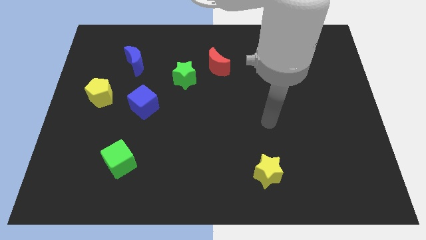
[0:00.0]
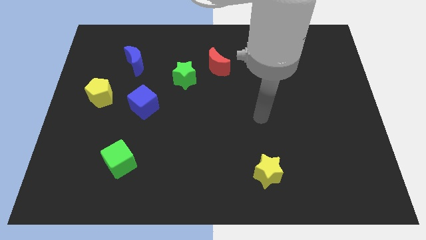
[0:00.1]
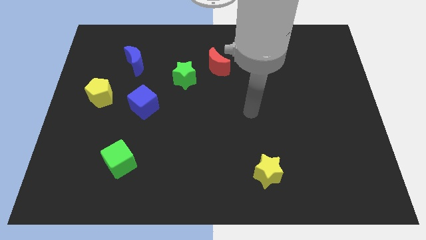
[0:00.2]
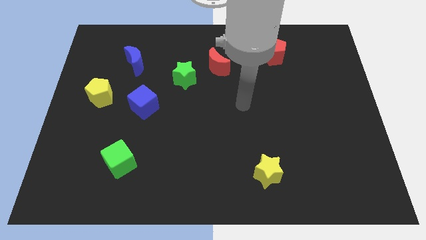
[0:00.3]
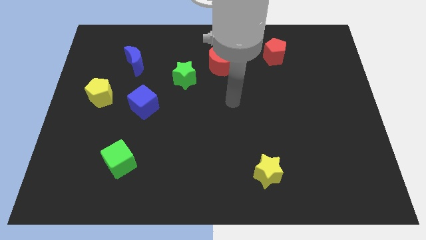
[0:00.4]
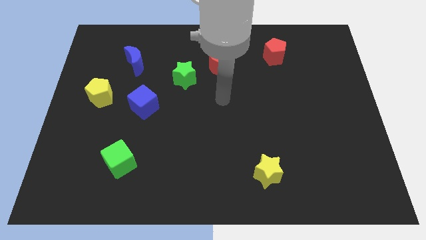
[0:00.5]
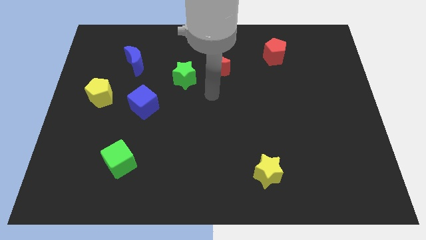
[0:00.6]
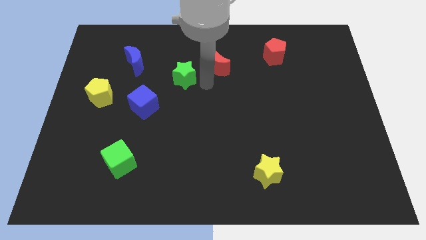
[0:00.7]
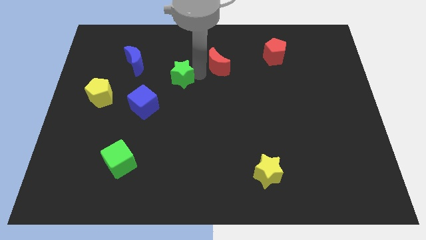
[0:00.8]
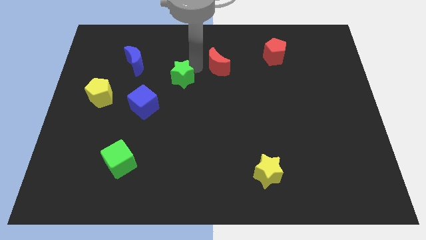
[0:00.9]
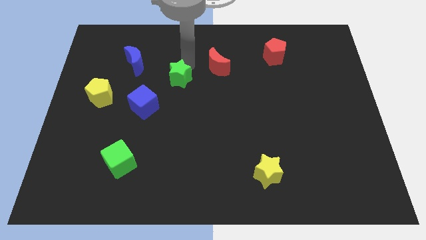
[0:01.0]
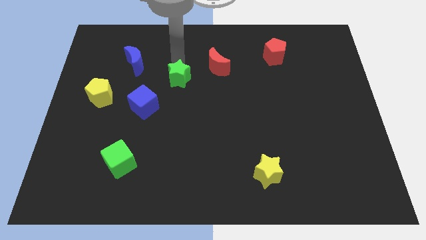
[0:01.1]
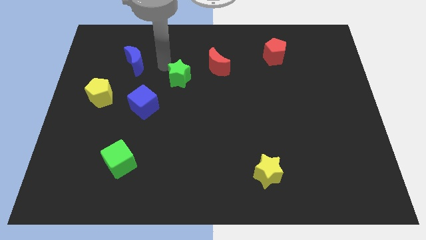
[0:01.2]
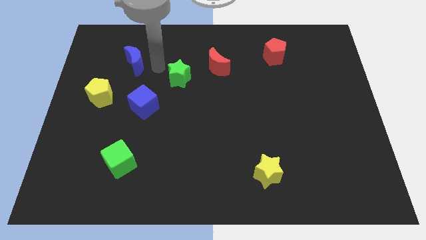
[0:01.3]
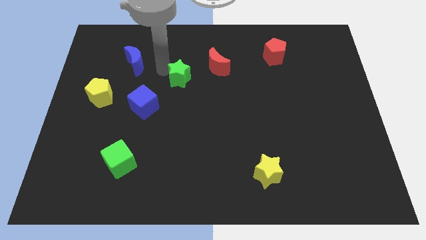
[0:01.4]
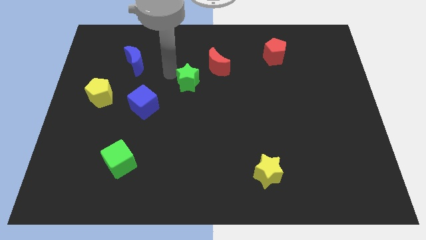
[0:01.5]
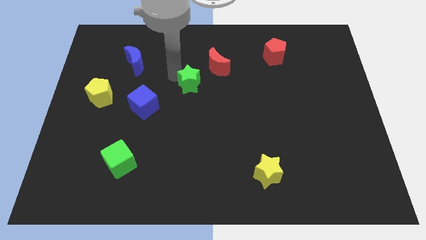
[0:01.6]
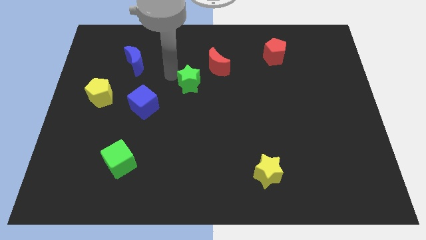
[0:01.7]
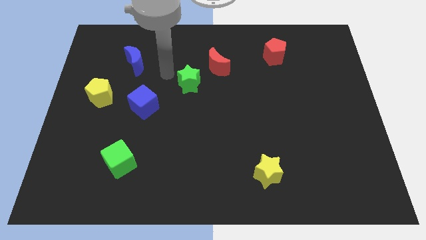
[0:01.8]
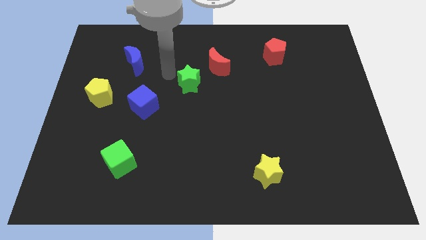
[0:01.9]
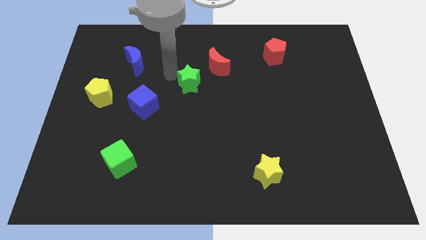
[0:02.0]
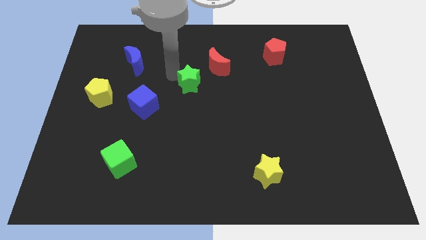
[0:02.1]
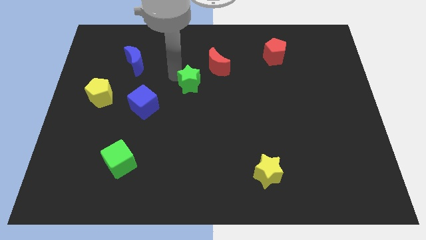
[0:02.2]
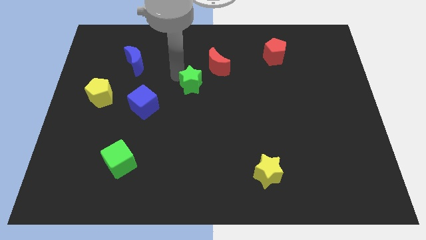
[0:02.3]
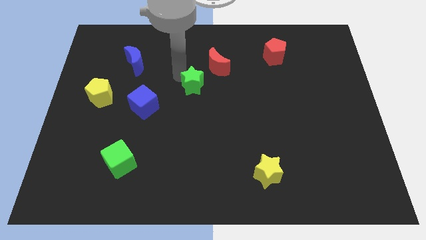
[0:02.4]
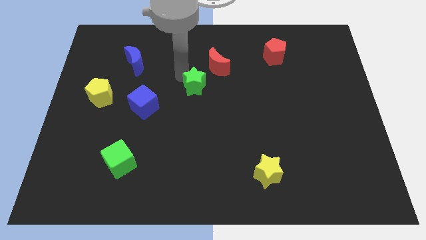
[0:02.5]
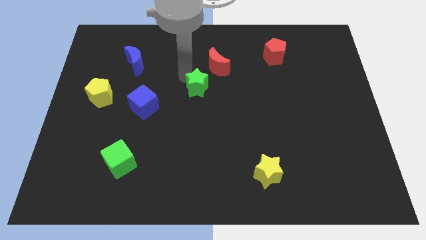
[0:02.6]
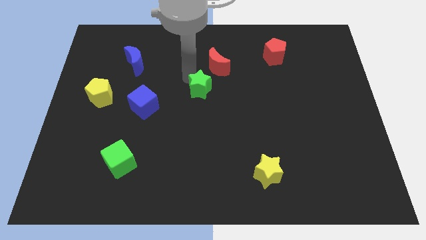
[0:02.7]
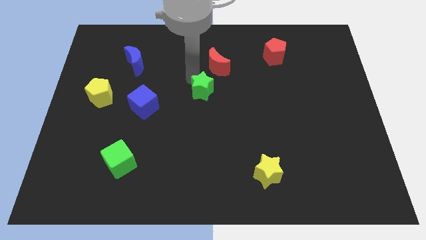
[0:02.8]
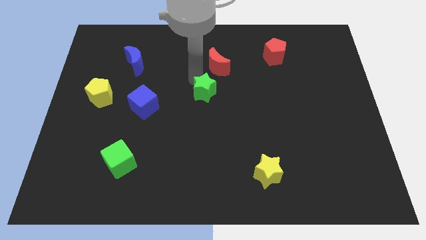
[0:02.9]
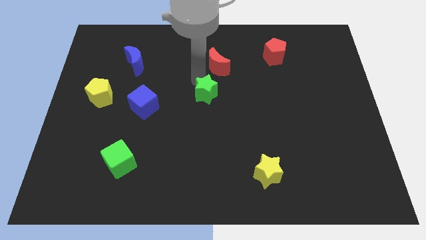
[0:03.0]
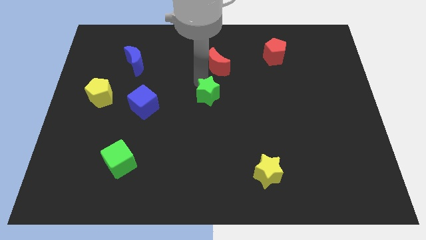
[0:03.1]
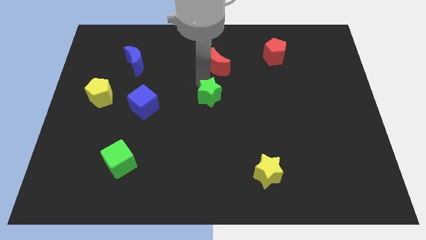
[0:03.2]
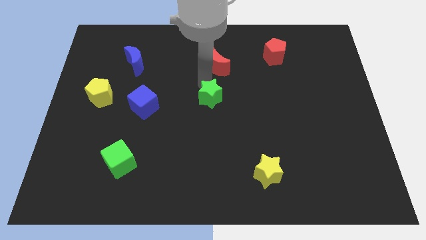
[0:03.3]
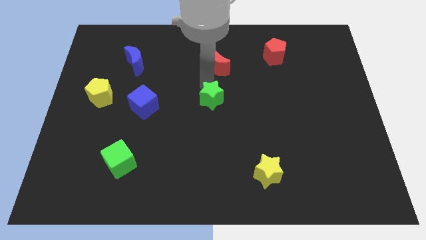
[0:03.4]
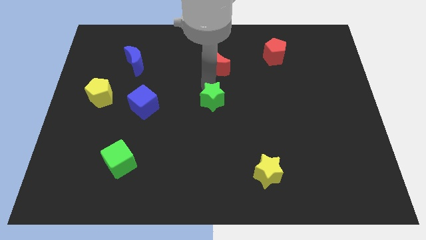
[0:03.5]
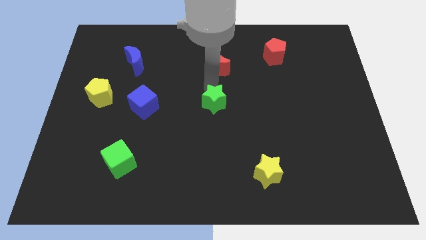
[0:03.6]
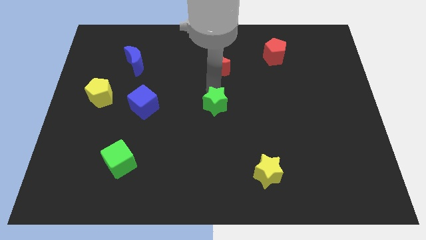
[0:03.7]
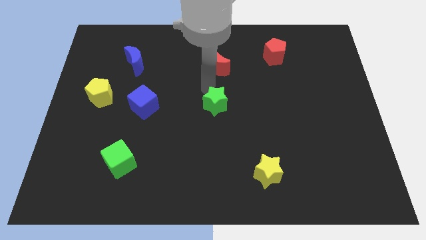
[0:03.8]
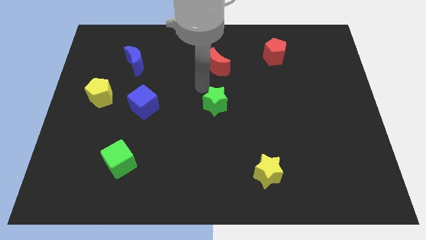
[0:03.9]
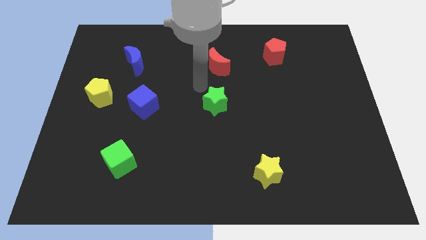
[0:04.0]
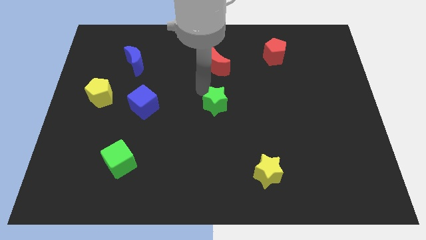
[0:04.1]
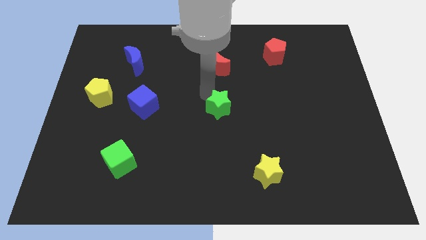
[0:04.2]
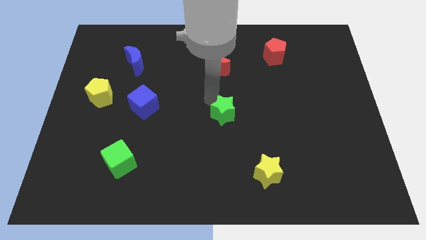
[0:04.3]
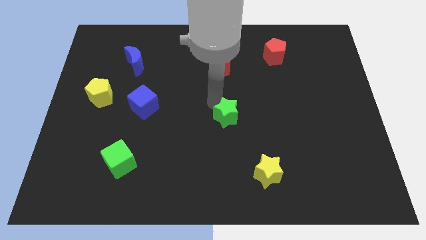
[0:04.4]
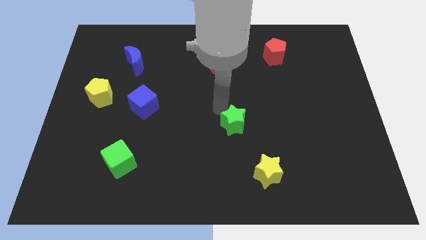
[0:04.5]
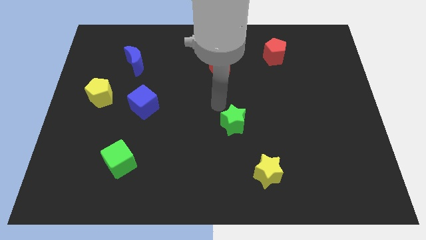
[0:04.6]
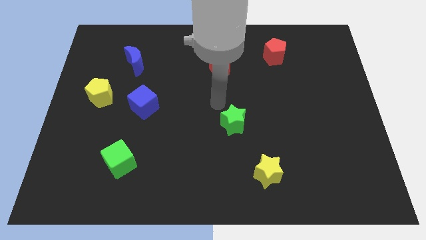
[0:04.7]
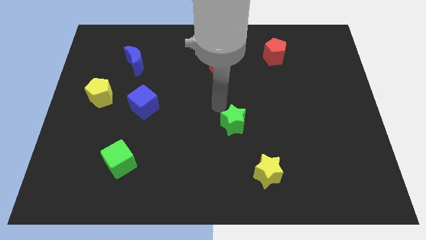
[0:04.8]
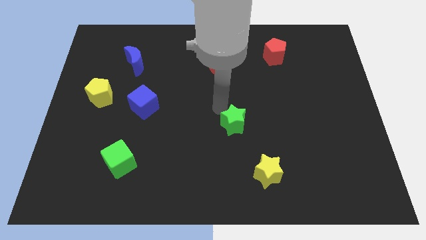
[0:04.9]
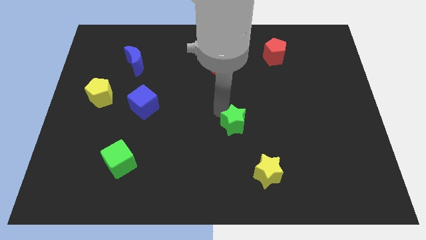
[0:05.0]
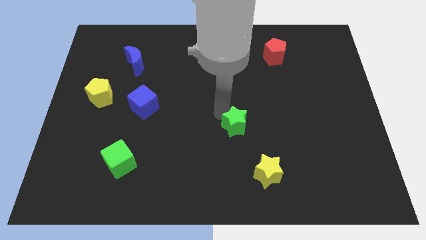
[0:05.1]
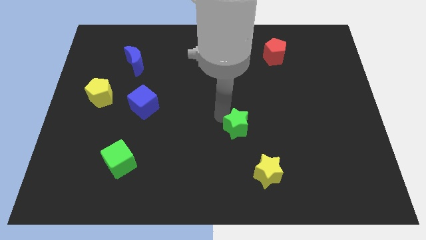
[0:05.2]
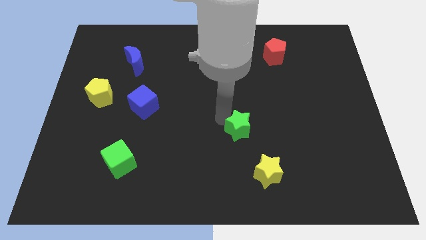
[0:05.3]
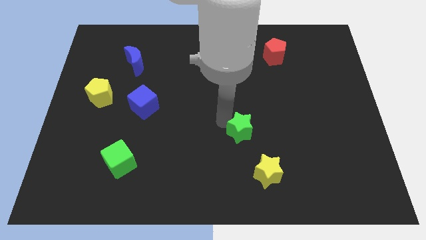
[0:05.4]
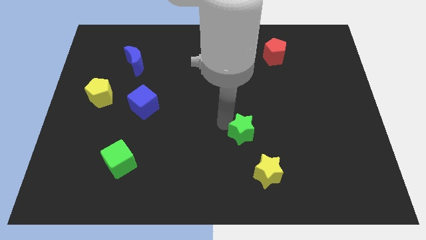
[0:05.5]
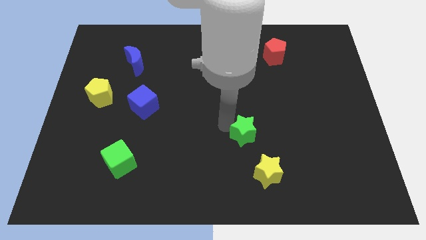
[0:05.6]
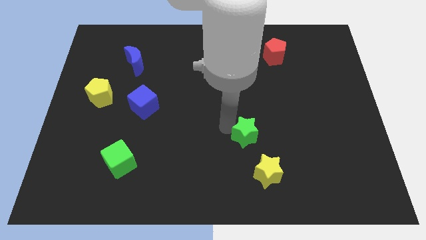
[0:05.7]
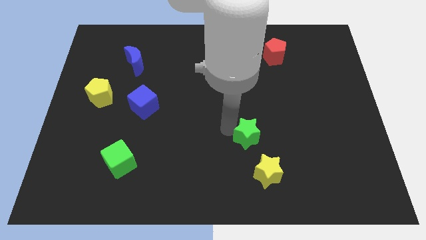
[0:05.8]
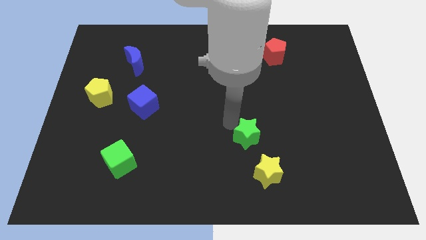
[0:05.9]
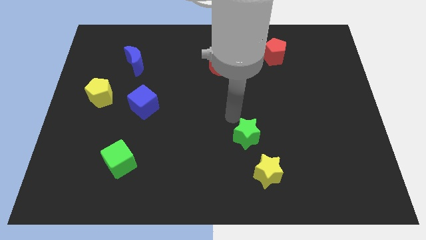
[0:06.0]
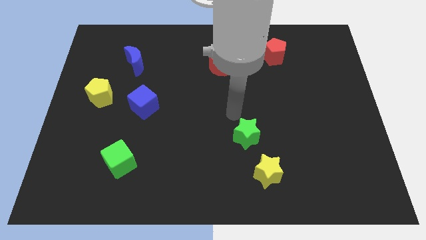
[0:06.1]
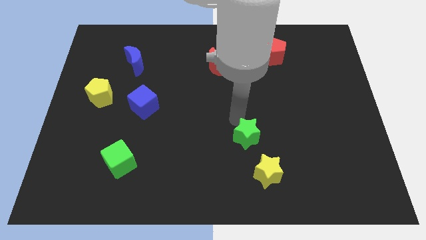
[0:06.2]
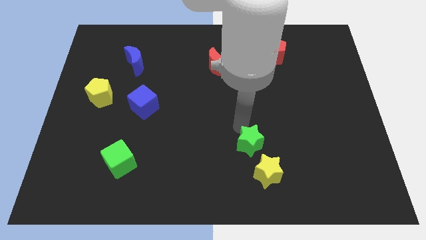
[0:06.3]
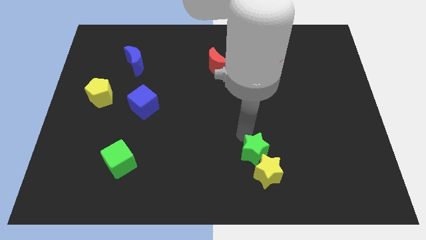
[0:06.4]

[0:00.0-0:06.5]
move the green star towards the yellow star

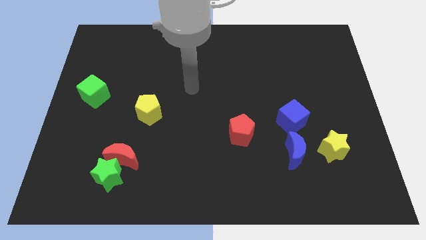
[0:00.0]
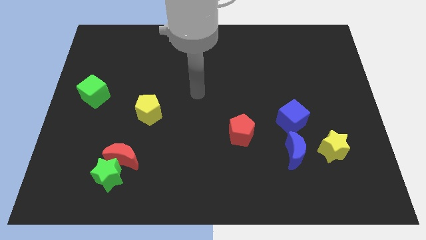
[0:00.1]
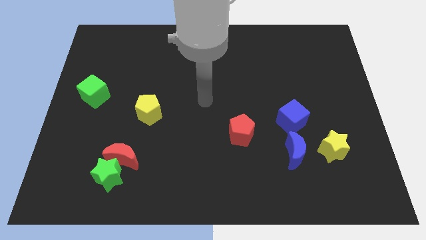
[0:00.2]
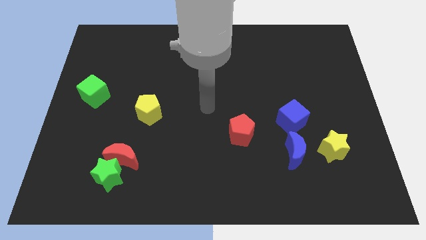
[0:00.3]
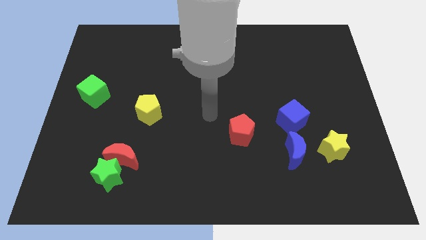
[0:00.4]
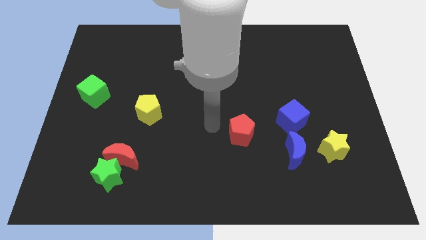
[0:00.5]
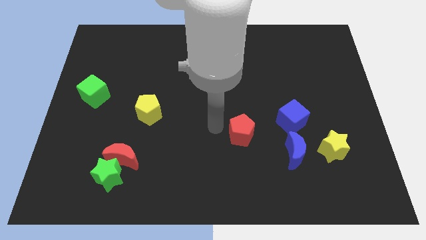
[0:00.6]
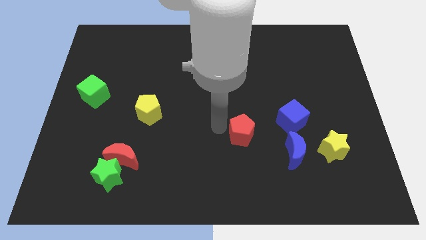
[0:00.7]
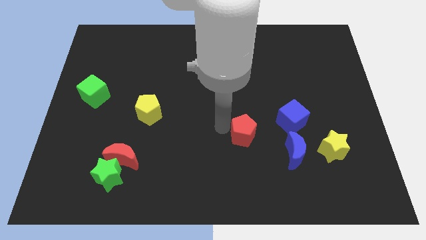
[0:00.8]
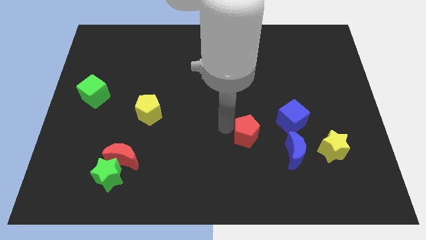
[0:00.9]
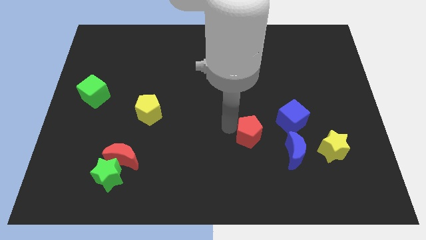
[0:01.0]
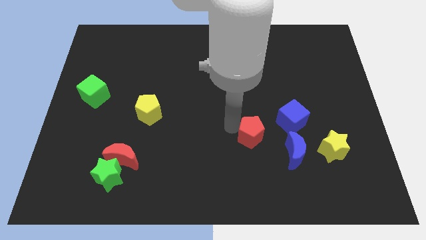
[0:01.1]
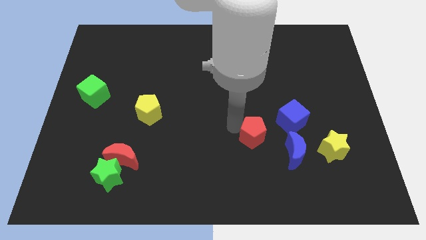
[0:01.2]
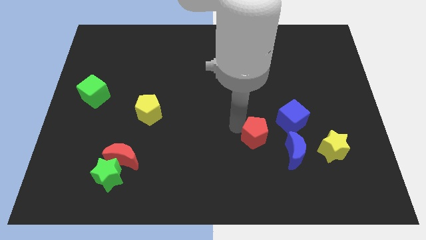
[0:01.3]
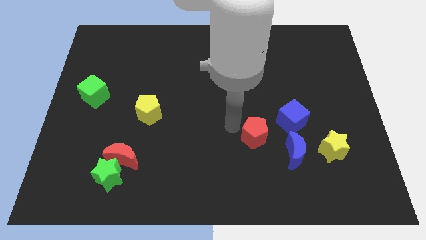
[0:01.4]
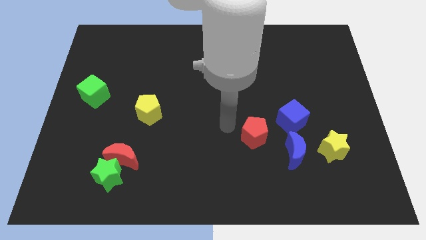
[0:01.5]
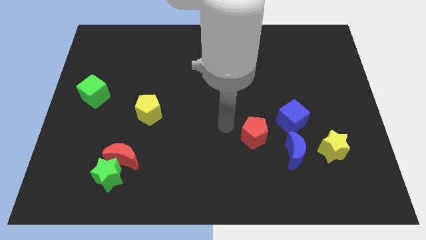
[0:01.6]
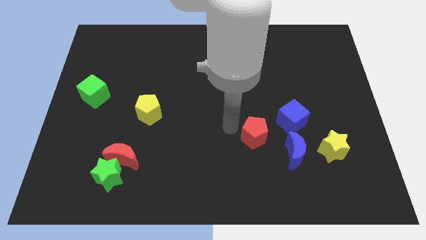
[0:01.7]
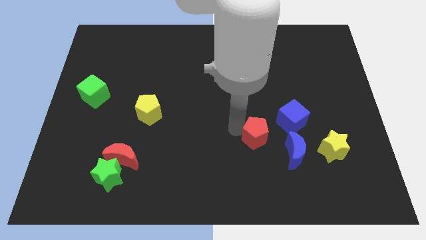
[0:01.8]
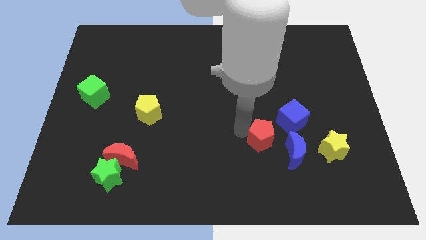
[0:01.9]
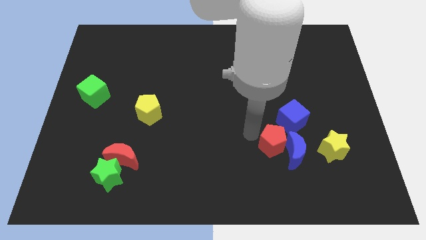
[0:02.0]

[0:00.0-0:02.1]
slide the red pentagon to the blue moon
